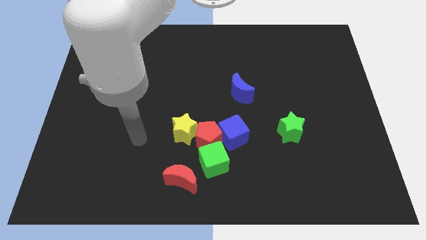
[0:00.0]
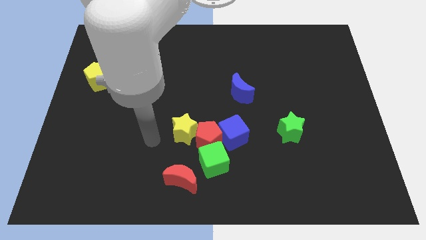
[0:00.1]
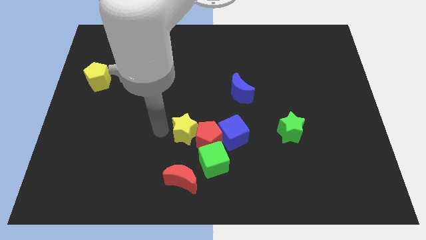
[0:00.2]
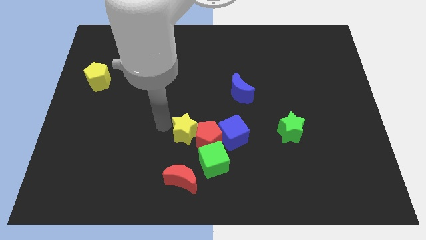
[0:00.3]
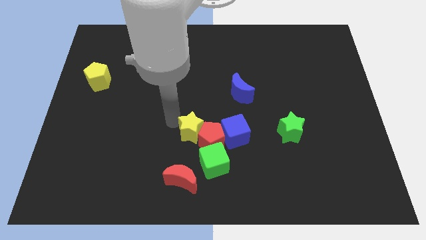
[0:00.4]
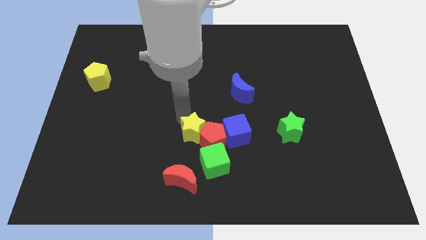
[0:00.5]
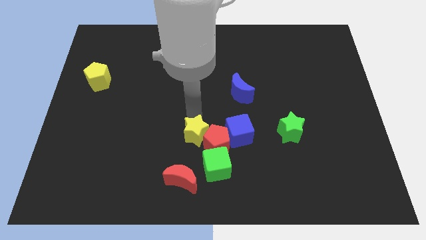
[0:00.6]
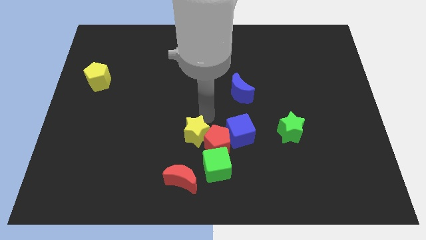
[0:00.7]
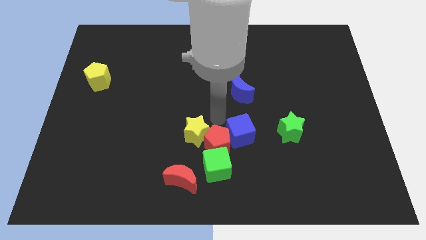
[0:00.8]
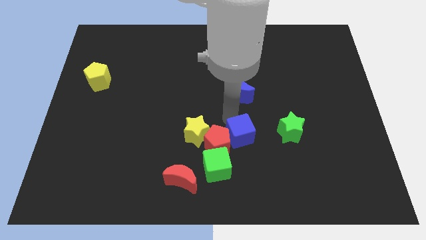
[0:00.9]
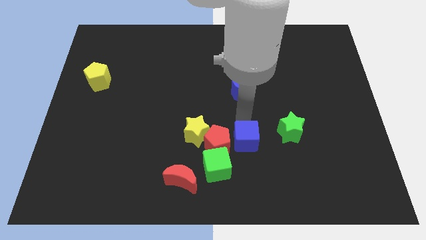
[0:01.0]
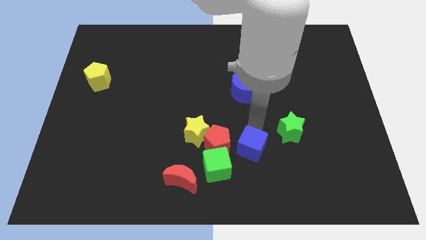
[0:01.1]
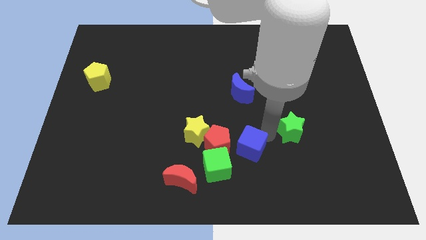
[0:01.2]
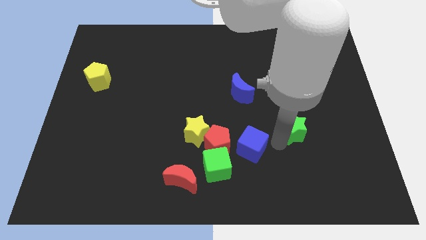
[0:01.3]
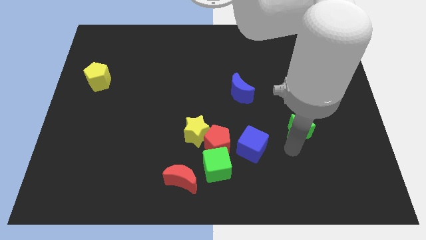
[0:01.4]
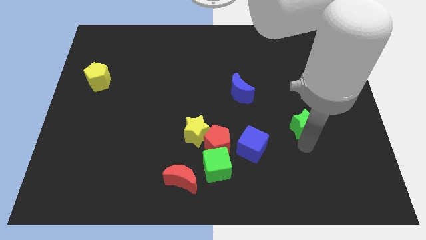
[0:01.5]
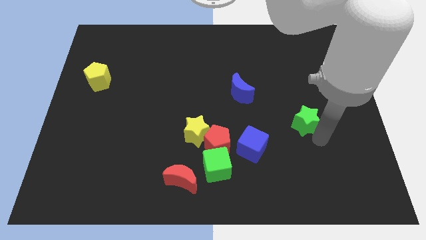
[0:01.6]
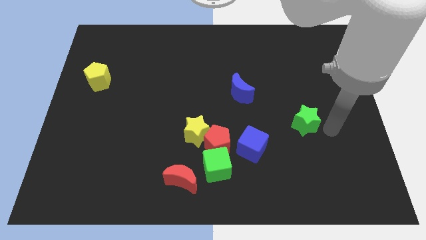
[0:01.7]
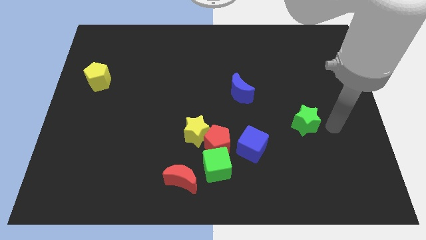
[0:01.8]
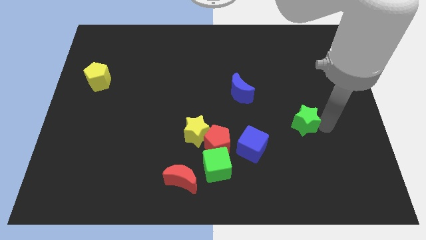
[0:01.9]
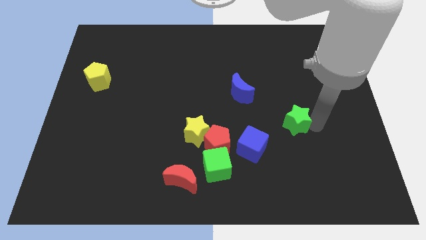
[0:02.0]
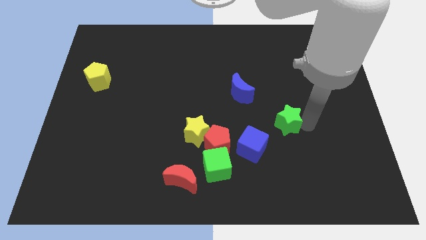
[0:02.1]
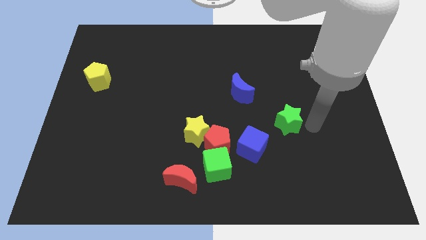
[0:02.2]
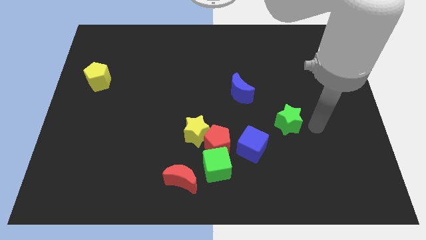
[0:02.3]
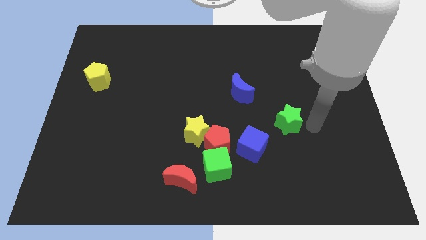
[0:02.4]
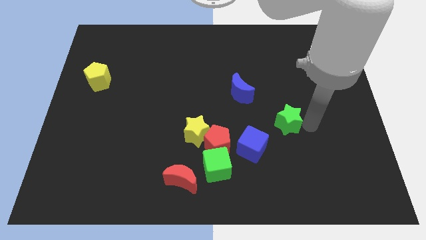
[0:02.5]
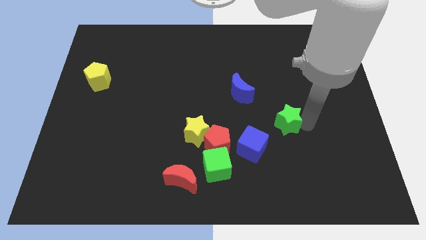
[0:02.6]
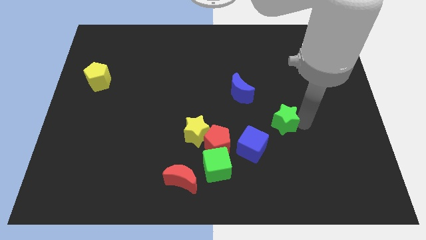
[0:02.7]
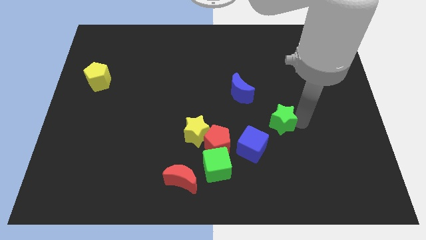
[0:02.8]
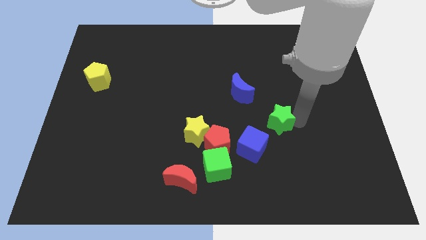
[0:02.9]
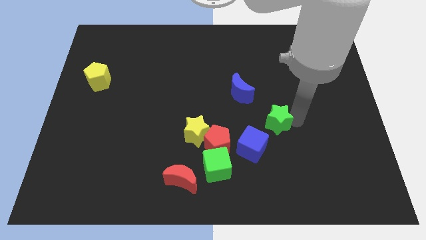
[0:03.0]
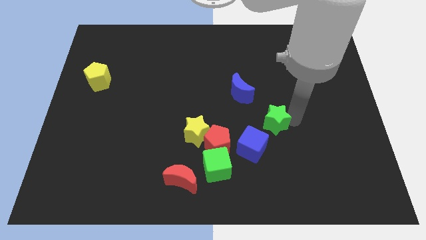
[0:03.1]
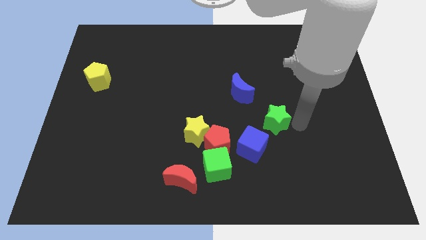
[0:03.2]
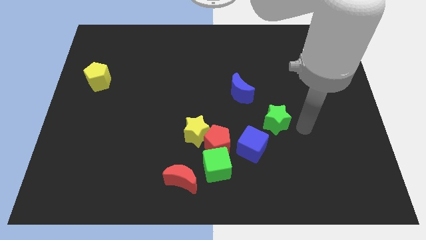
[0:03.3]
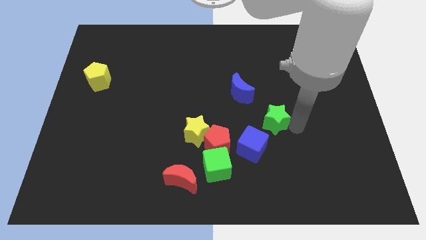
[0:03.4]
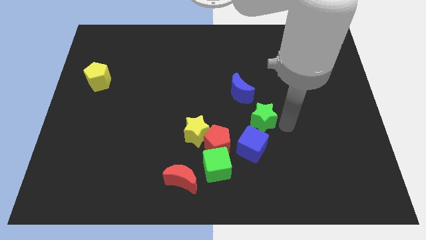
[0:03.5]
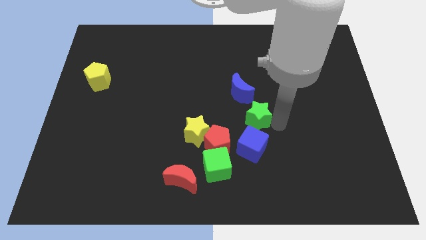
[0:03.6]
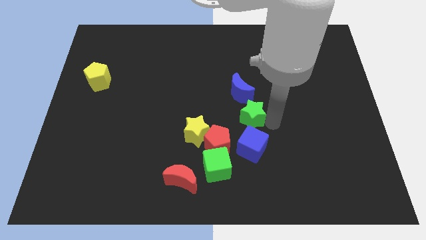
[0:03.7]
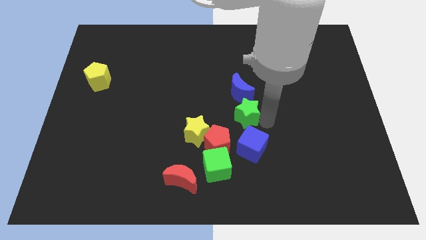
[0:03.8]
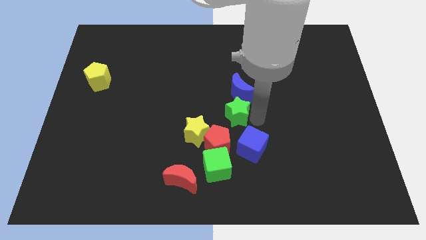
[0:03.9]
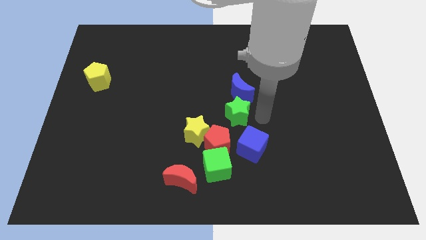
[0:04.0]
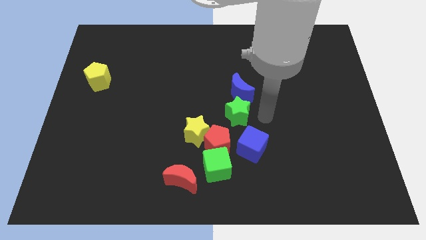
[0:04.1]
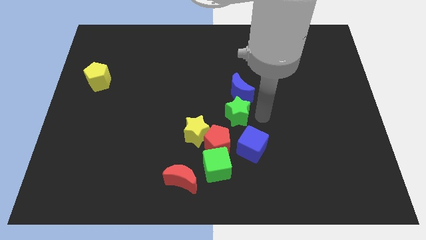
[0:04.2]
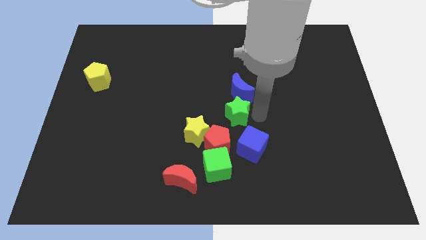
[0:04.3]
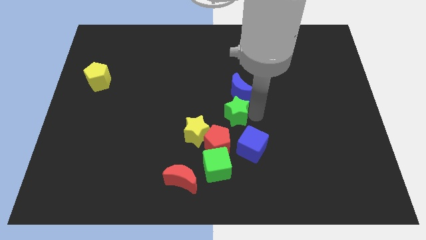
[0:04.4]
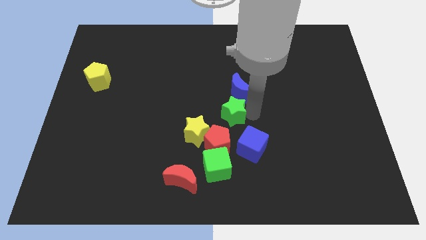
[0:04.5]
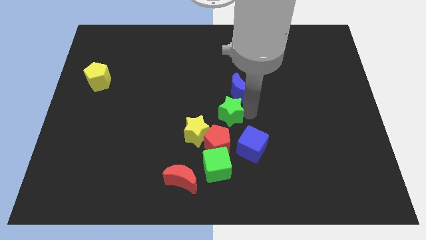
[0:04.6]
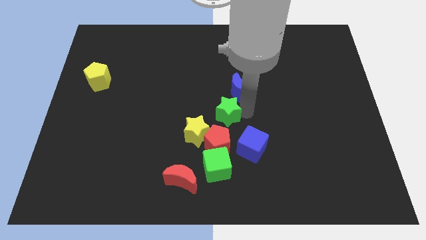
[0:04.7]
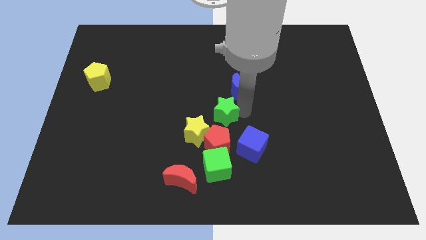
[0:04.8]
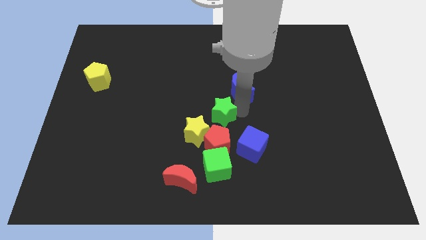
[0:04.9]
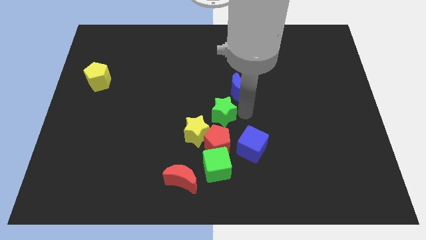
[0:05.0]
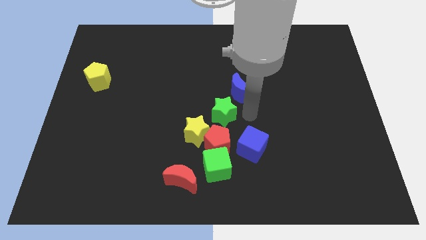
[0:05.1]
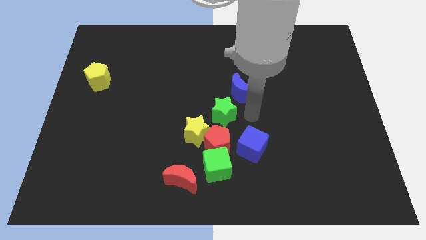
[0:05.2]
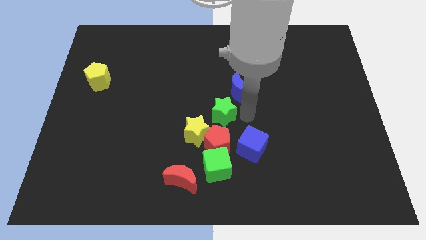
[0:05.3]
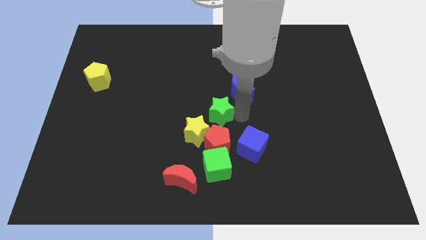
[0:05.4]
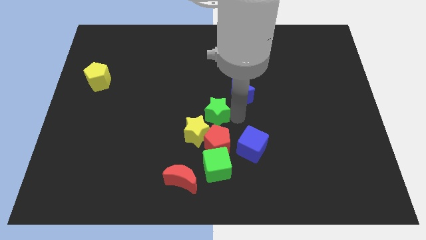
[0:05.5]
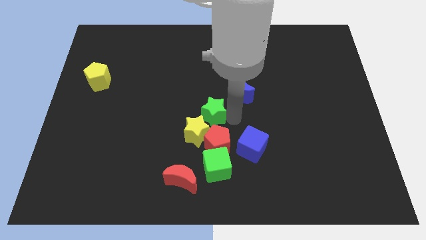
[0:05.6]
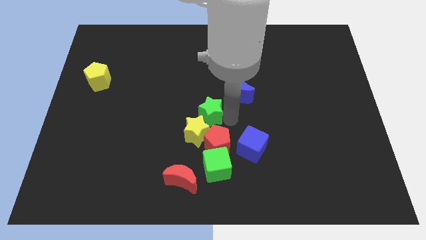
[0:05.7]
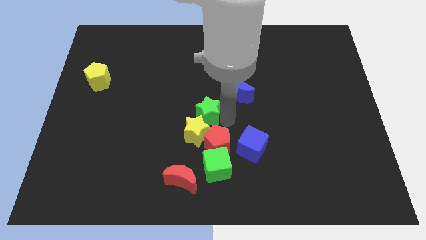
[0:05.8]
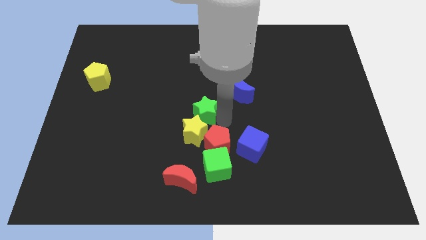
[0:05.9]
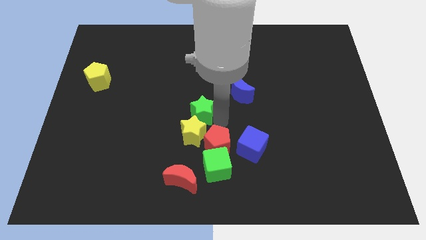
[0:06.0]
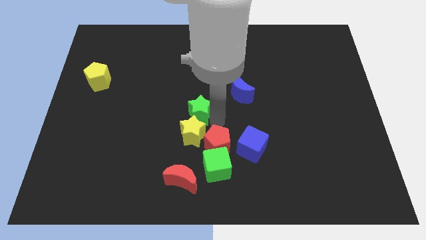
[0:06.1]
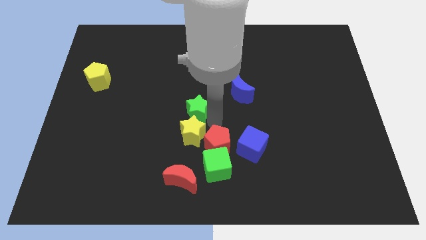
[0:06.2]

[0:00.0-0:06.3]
slide the green star left

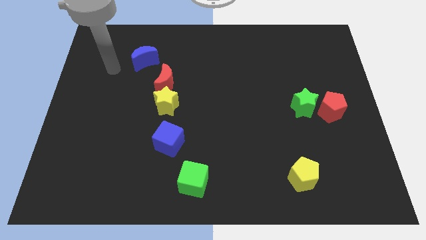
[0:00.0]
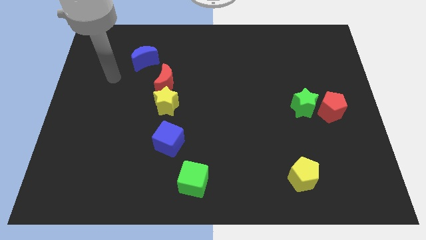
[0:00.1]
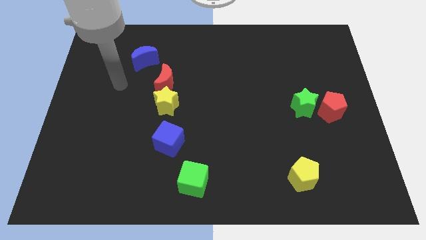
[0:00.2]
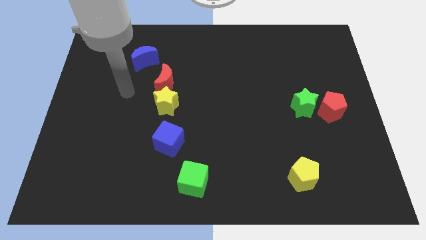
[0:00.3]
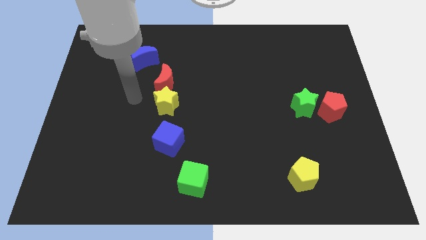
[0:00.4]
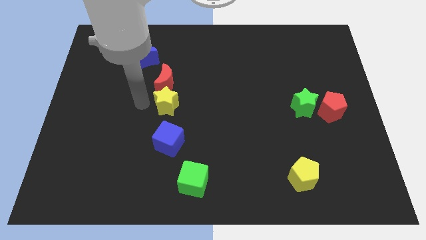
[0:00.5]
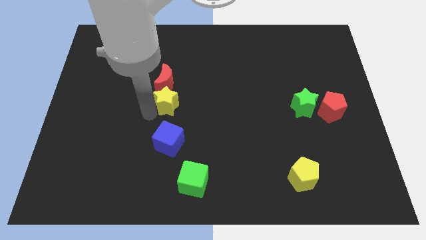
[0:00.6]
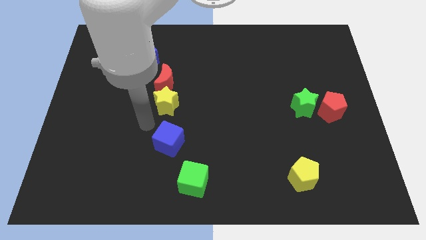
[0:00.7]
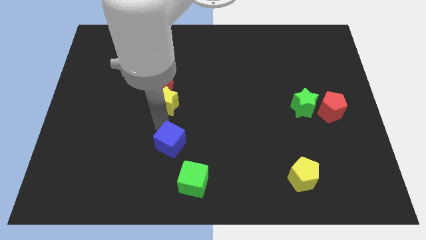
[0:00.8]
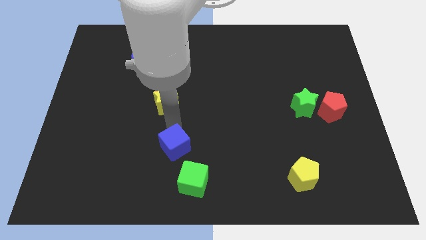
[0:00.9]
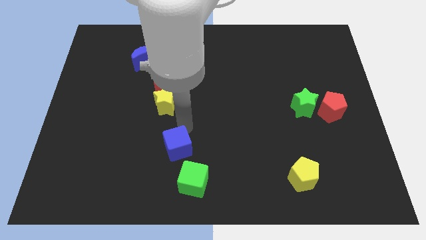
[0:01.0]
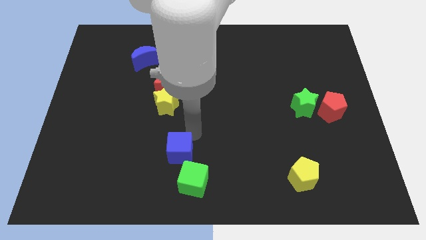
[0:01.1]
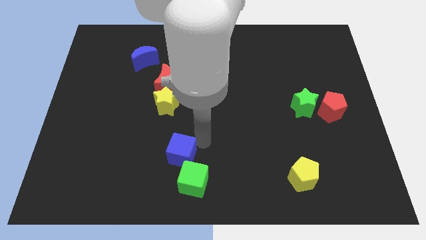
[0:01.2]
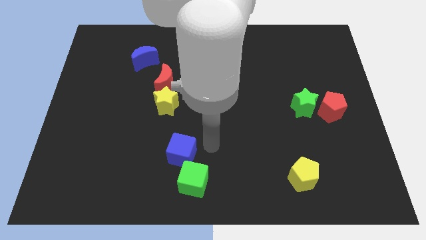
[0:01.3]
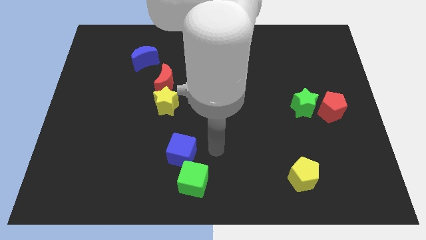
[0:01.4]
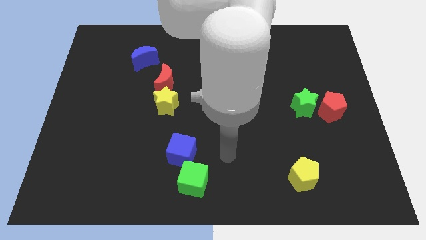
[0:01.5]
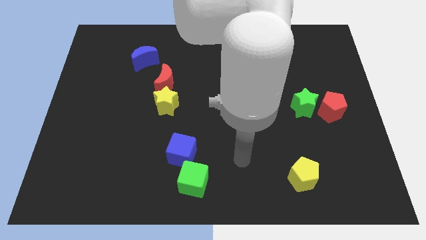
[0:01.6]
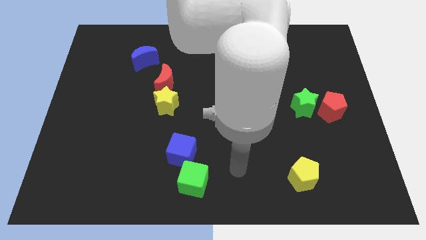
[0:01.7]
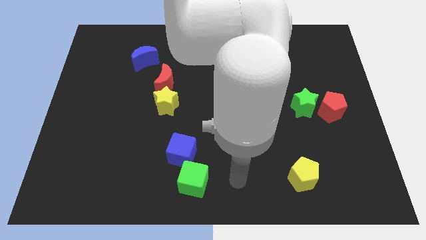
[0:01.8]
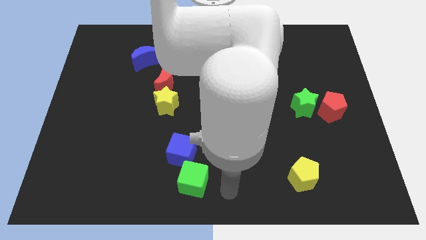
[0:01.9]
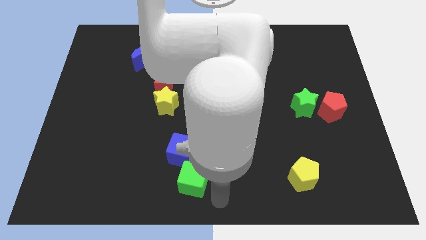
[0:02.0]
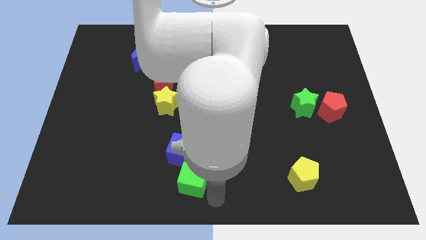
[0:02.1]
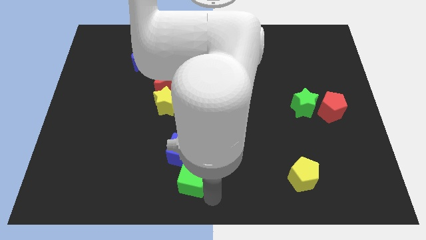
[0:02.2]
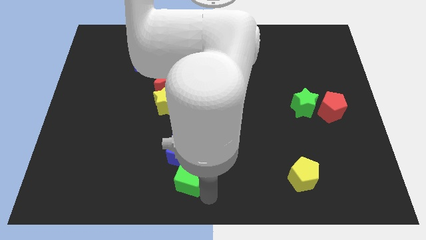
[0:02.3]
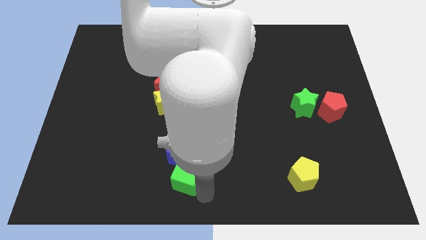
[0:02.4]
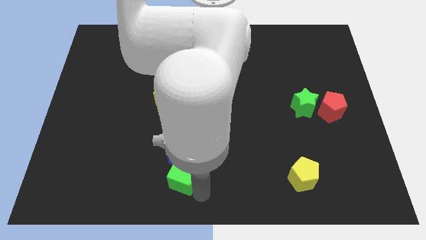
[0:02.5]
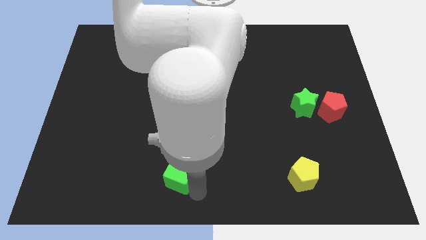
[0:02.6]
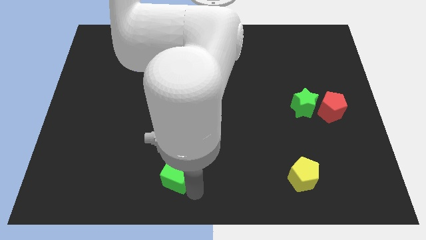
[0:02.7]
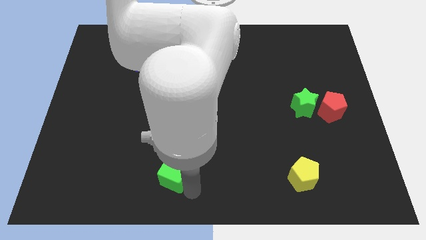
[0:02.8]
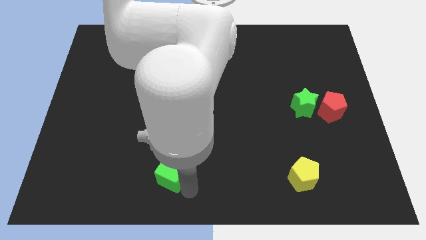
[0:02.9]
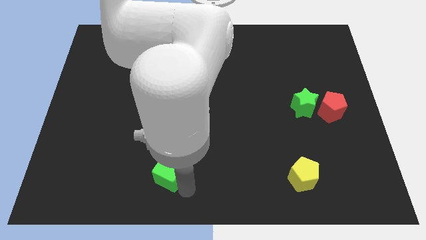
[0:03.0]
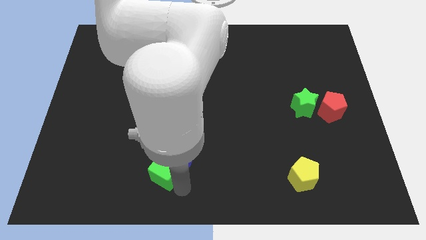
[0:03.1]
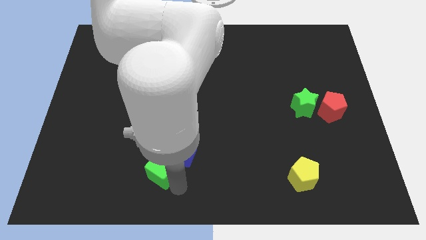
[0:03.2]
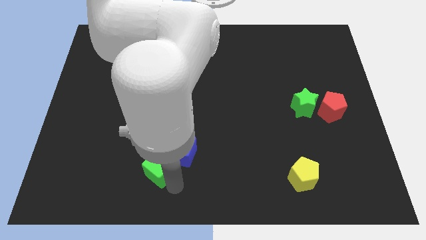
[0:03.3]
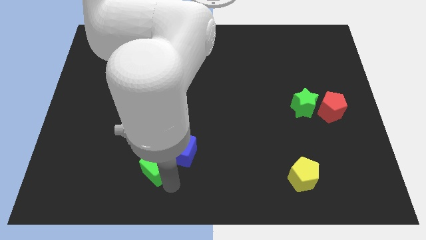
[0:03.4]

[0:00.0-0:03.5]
slightly move the green cube upwards and then left
